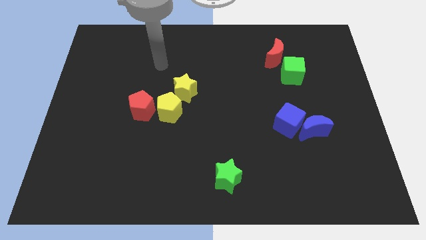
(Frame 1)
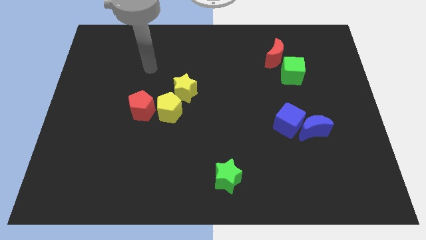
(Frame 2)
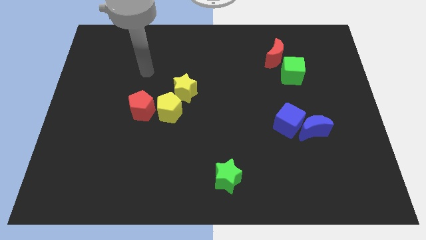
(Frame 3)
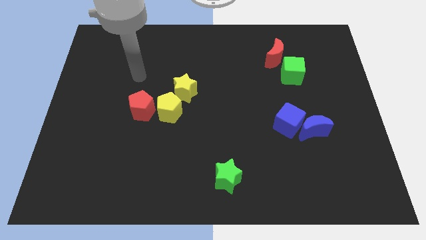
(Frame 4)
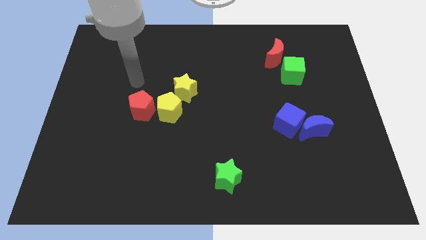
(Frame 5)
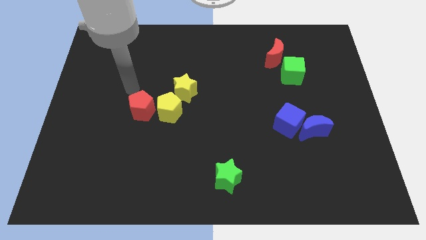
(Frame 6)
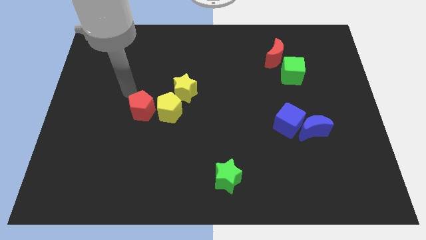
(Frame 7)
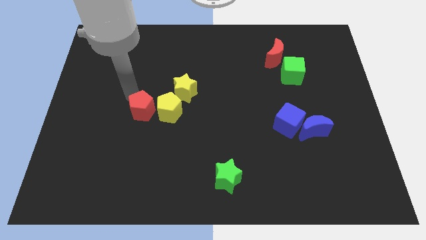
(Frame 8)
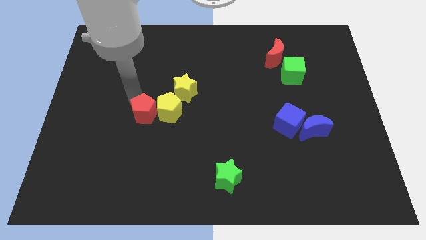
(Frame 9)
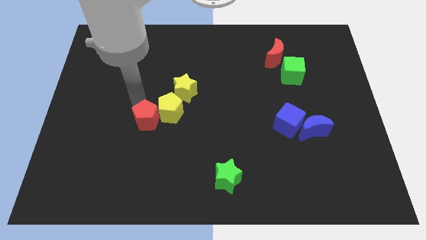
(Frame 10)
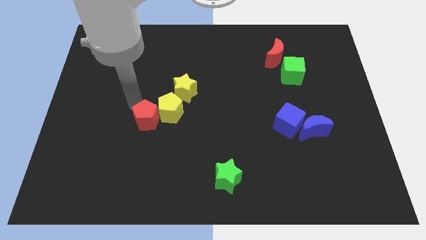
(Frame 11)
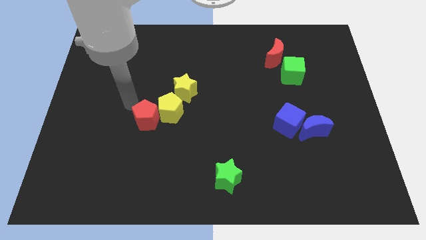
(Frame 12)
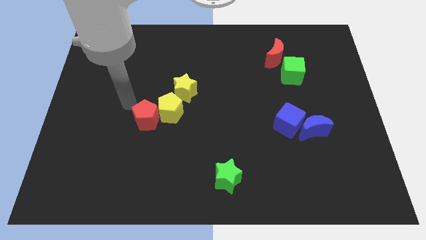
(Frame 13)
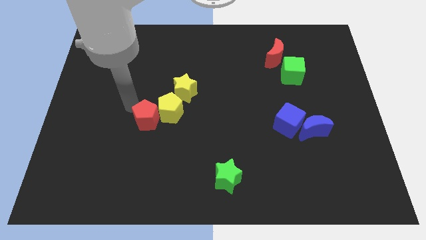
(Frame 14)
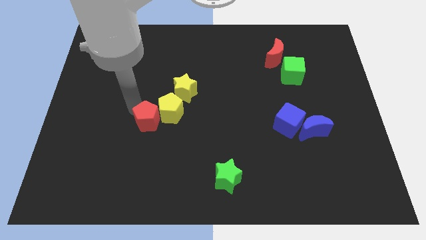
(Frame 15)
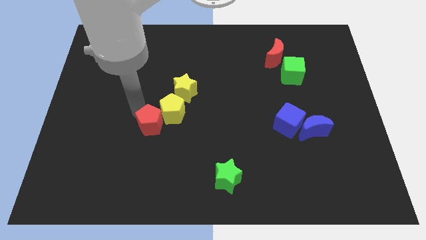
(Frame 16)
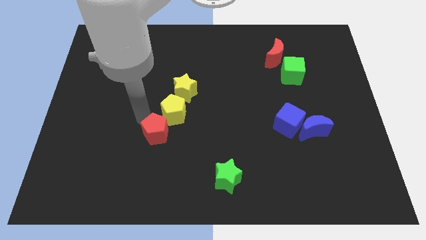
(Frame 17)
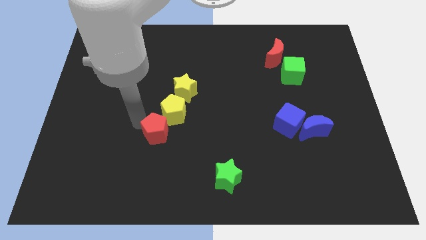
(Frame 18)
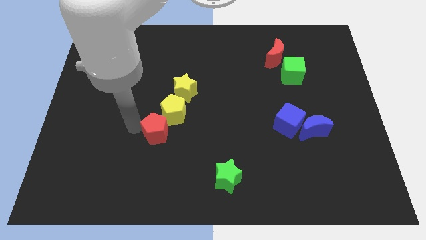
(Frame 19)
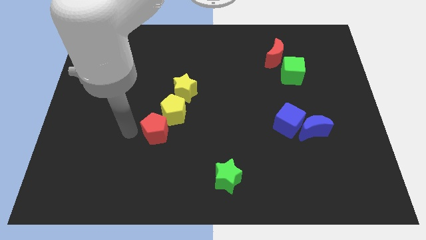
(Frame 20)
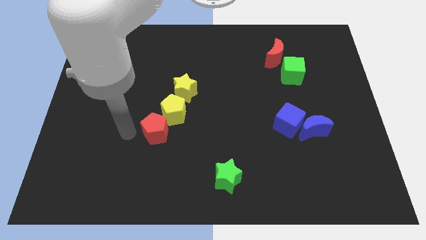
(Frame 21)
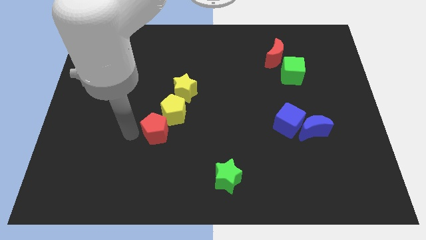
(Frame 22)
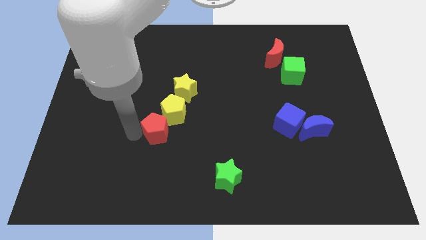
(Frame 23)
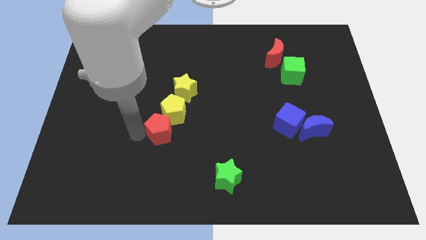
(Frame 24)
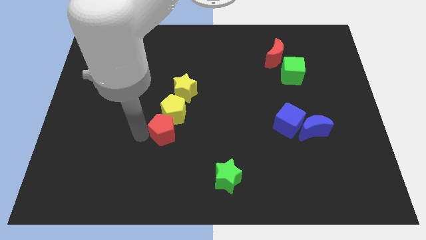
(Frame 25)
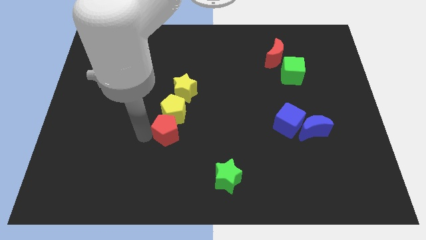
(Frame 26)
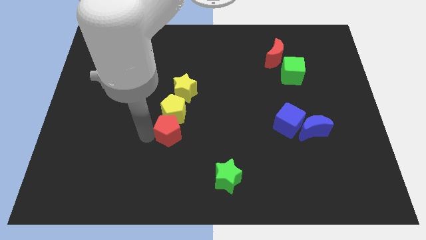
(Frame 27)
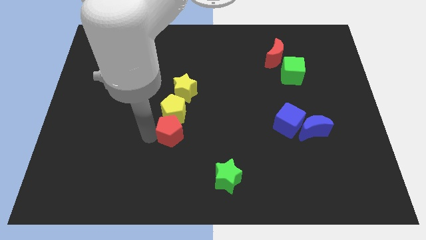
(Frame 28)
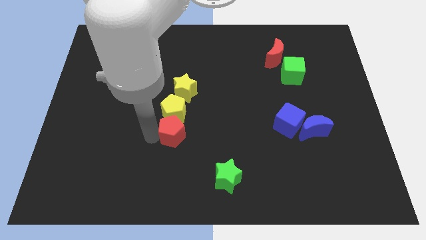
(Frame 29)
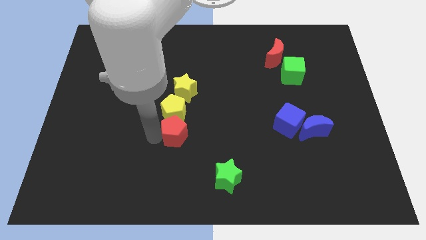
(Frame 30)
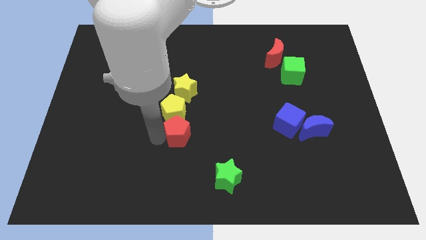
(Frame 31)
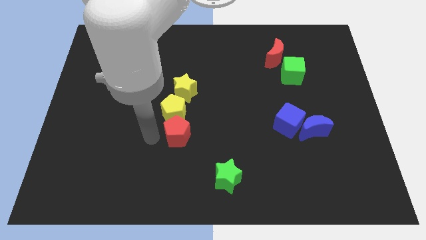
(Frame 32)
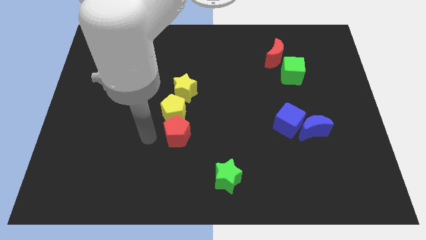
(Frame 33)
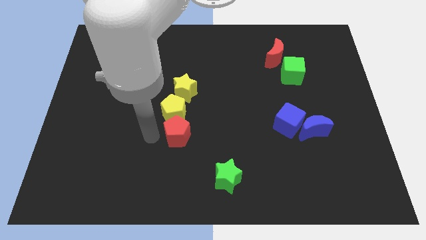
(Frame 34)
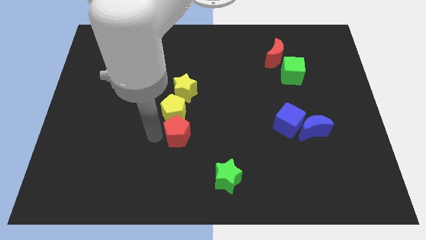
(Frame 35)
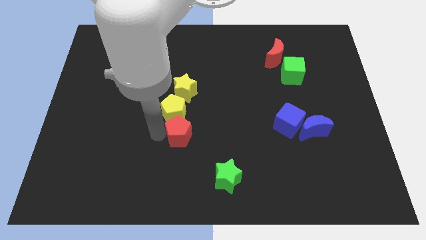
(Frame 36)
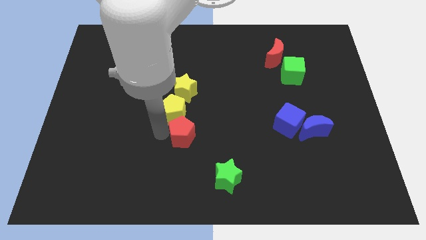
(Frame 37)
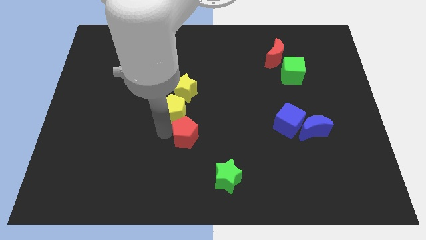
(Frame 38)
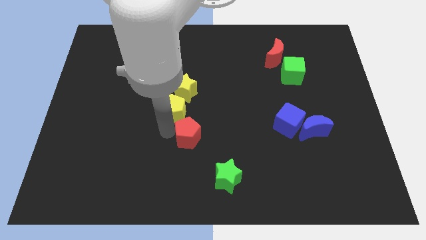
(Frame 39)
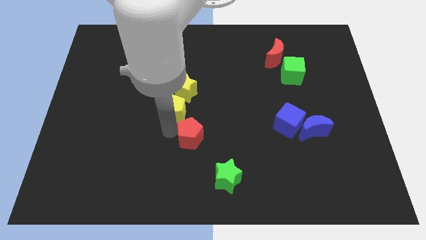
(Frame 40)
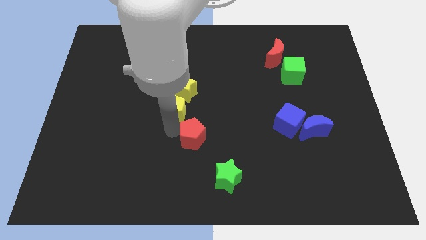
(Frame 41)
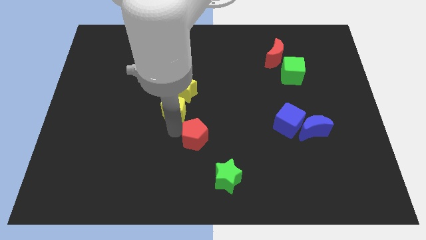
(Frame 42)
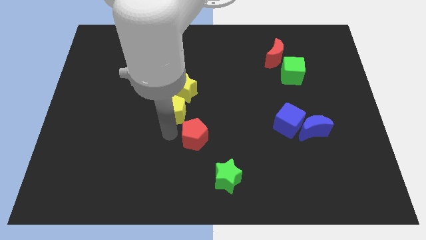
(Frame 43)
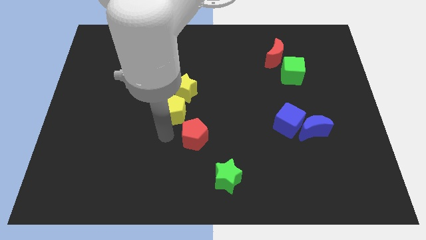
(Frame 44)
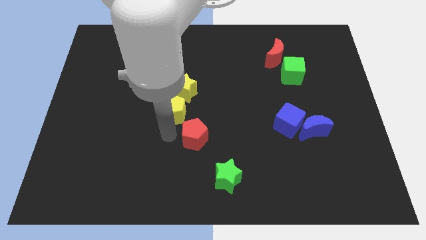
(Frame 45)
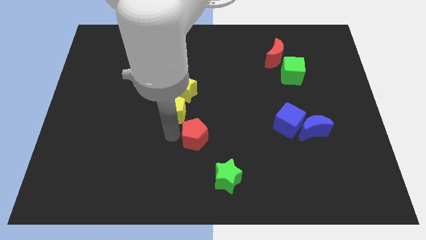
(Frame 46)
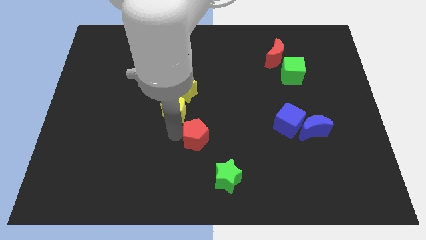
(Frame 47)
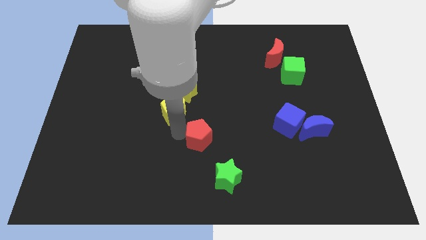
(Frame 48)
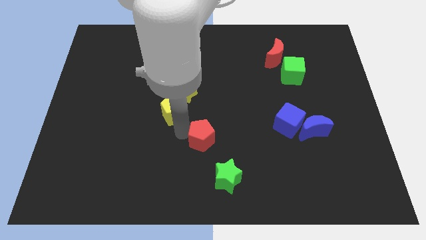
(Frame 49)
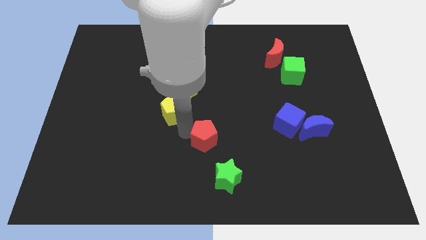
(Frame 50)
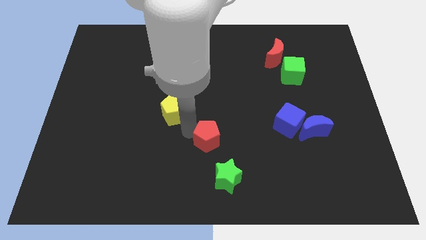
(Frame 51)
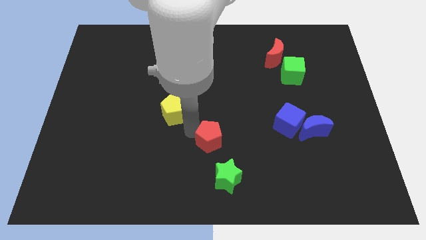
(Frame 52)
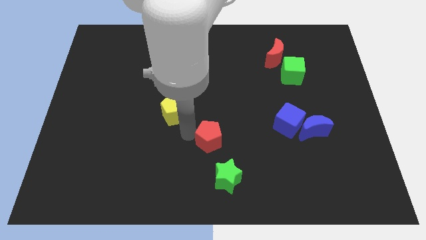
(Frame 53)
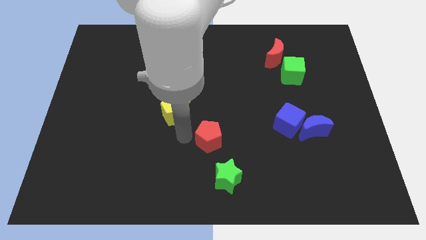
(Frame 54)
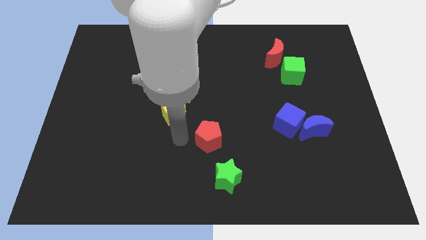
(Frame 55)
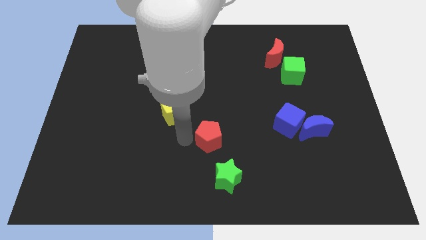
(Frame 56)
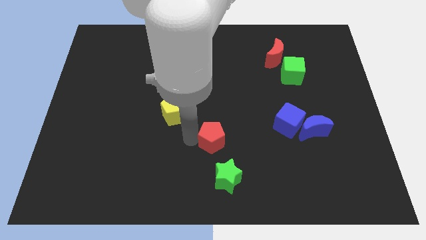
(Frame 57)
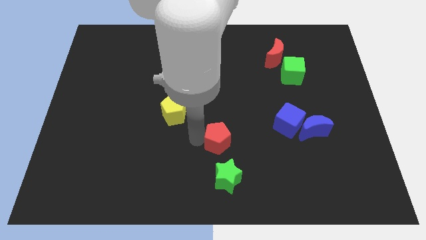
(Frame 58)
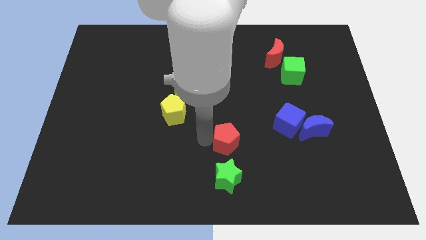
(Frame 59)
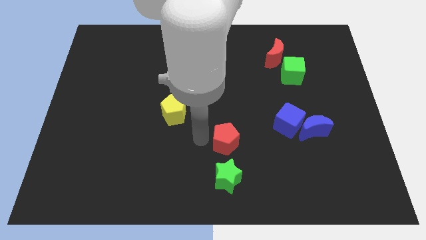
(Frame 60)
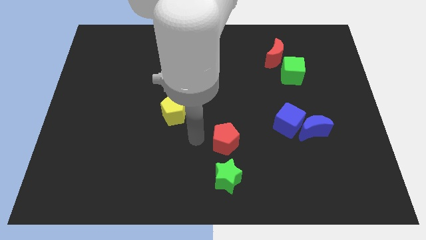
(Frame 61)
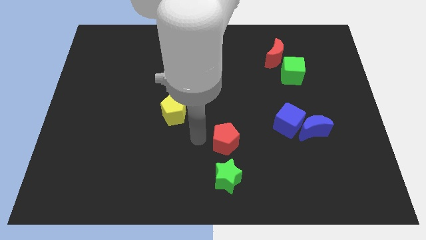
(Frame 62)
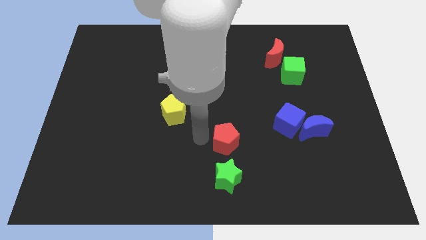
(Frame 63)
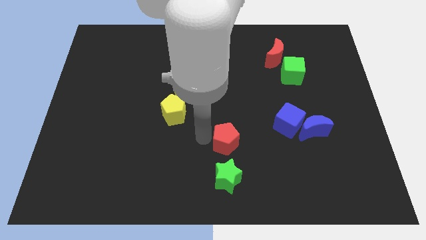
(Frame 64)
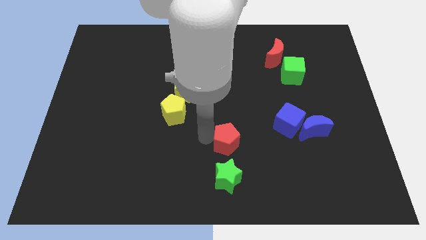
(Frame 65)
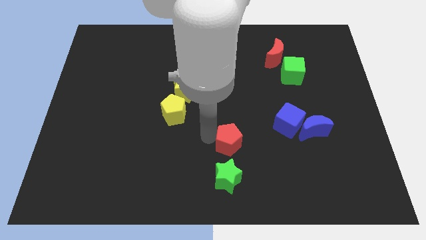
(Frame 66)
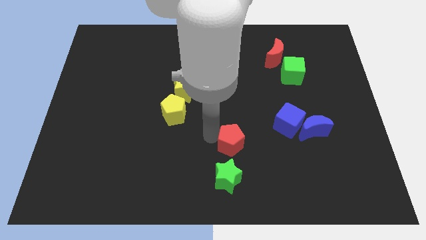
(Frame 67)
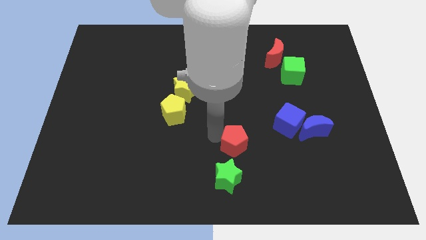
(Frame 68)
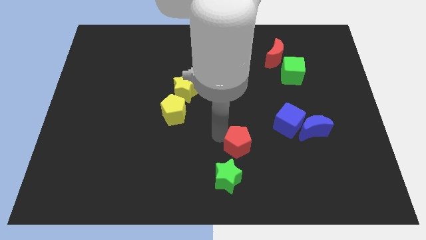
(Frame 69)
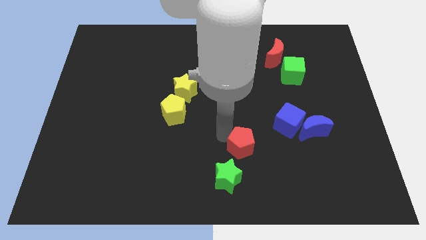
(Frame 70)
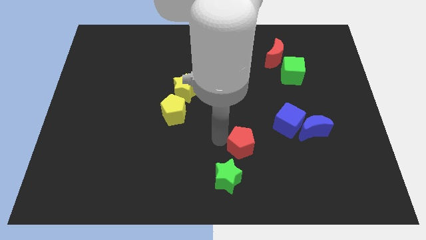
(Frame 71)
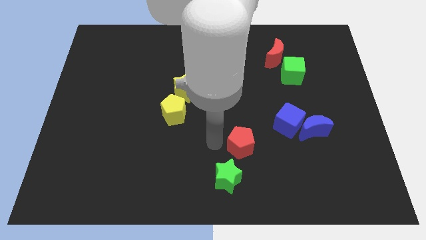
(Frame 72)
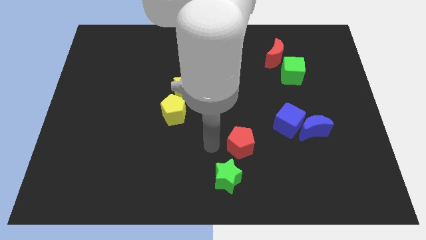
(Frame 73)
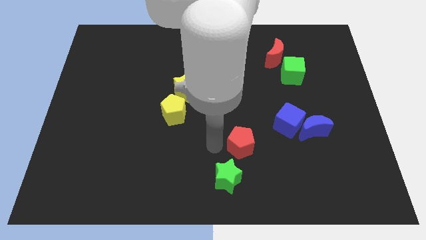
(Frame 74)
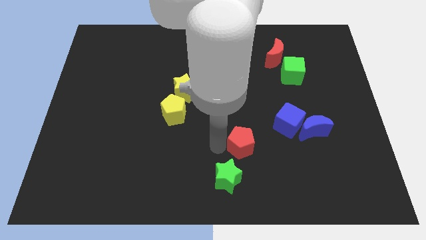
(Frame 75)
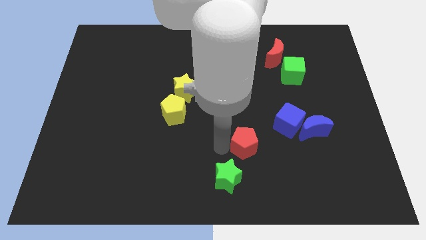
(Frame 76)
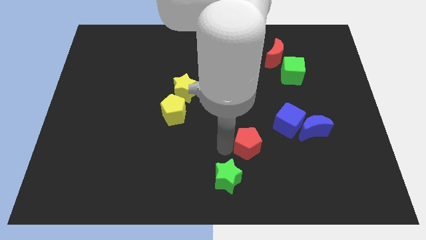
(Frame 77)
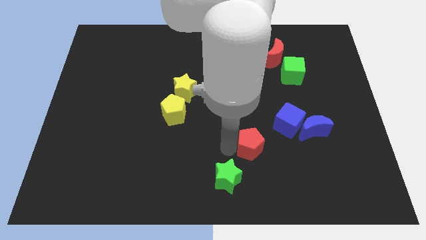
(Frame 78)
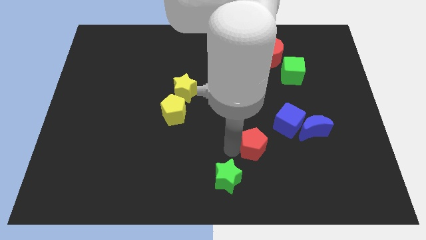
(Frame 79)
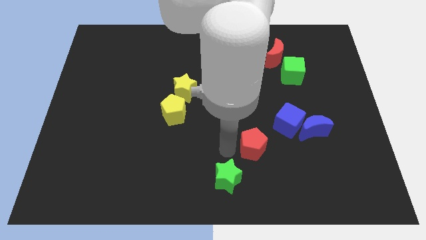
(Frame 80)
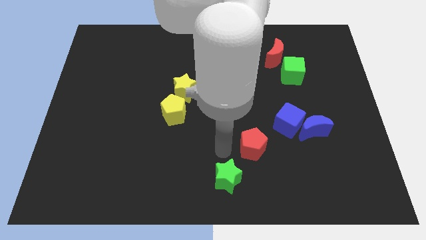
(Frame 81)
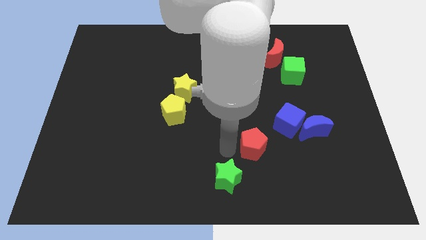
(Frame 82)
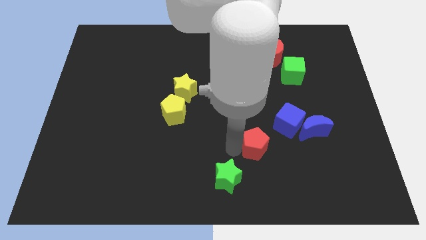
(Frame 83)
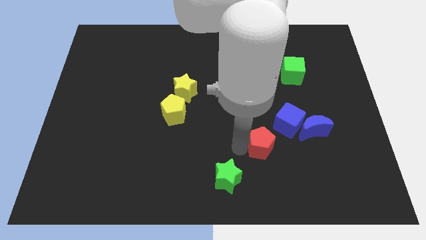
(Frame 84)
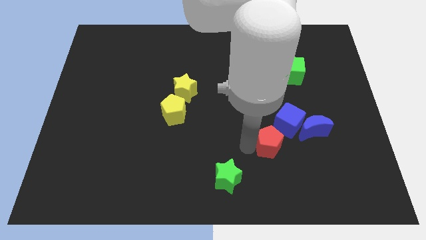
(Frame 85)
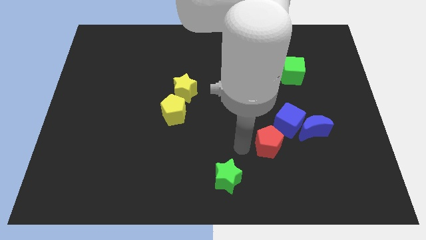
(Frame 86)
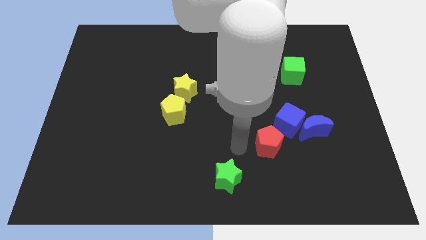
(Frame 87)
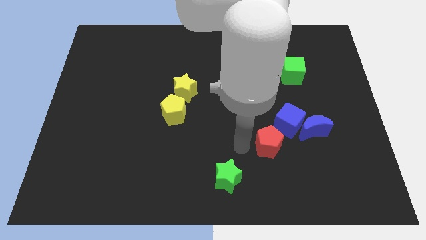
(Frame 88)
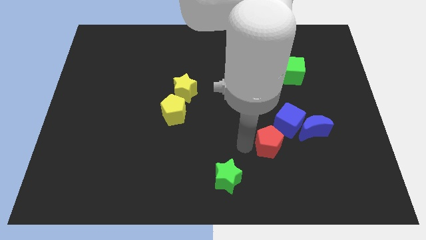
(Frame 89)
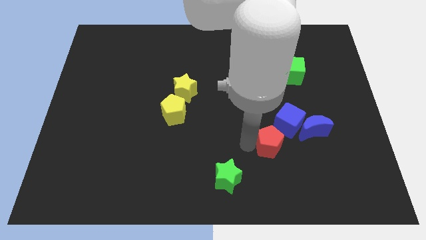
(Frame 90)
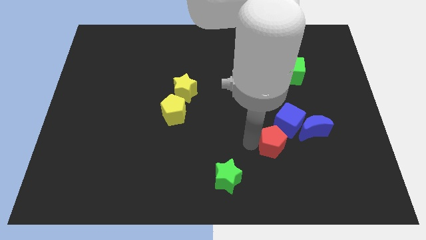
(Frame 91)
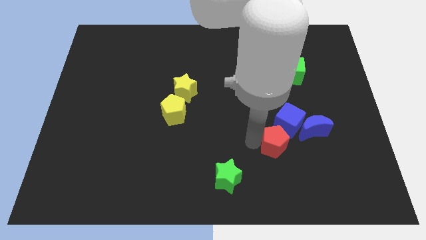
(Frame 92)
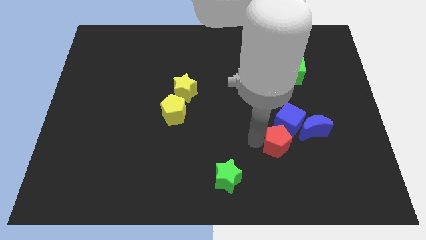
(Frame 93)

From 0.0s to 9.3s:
slide the red pentagon next to the blue cube
